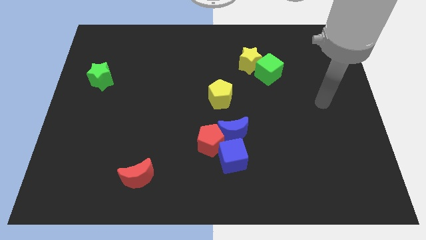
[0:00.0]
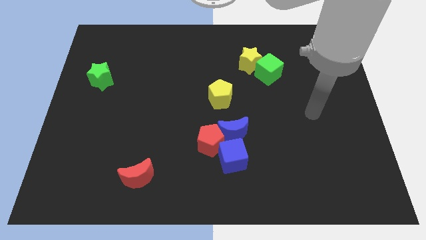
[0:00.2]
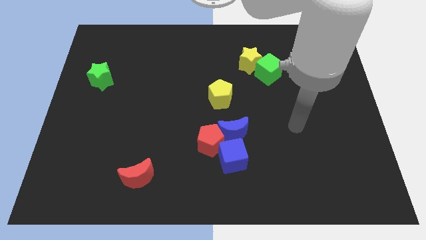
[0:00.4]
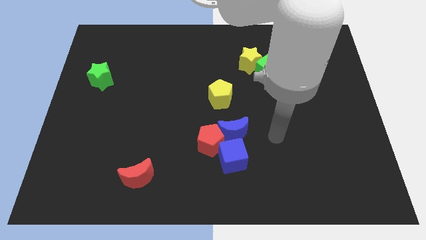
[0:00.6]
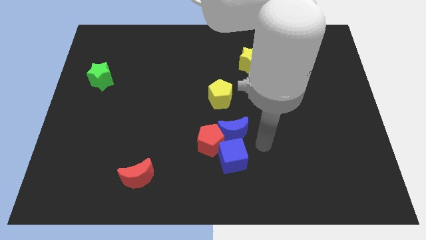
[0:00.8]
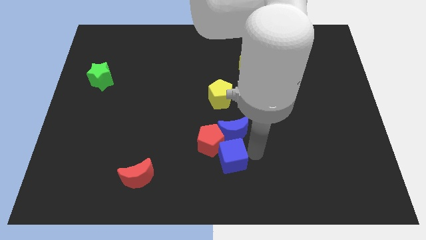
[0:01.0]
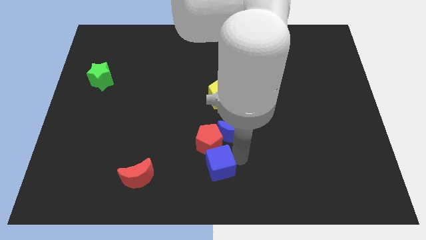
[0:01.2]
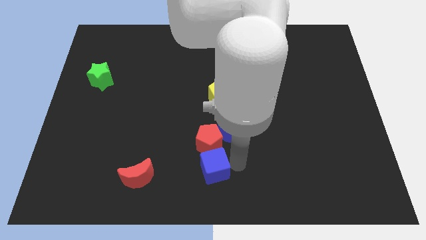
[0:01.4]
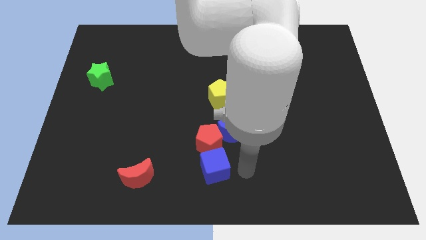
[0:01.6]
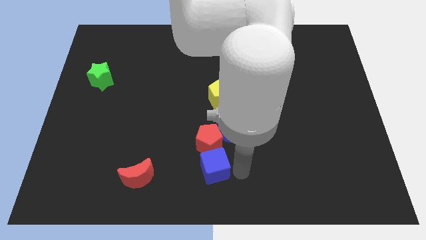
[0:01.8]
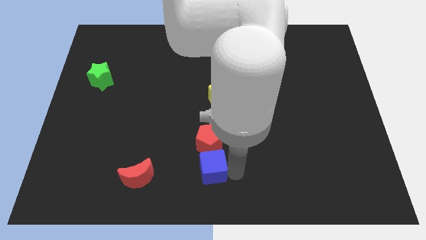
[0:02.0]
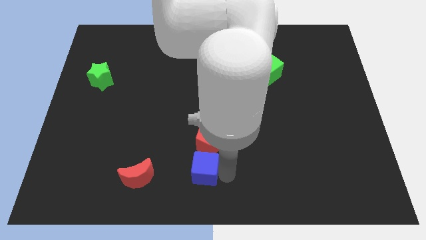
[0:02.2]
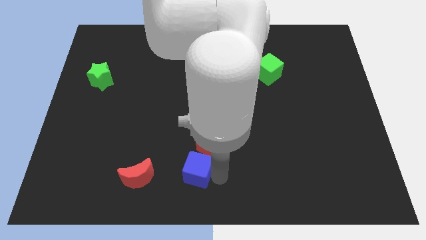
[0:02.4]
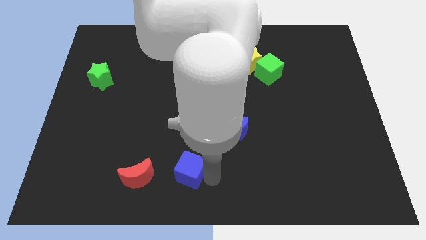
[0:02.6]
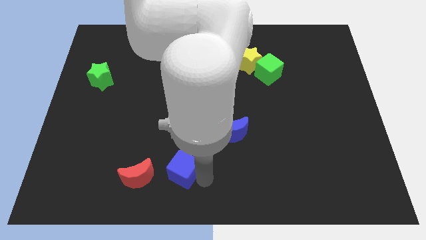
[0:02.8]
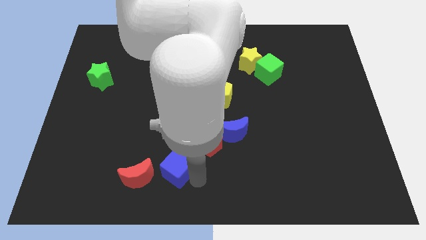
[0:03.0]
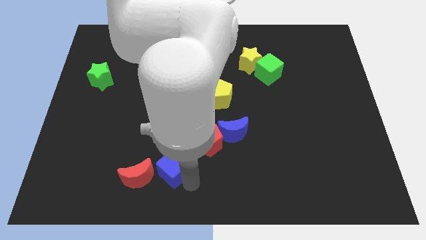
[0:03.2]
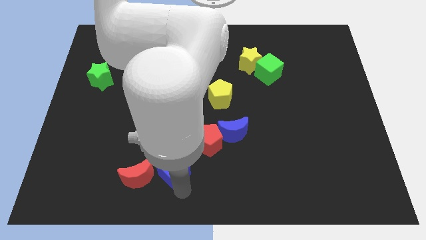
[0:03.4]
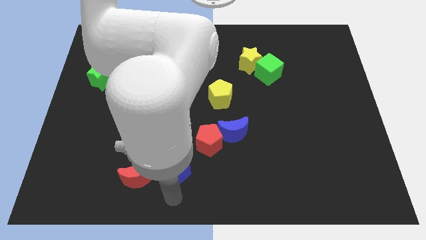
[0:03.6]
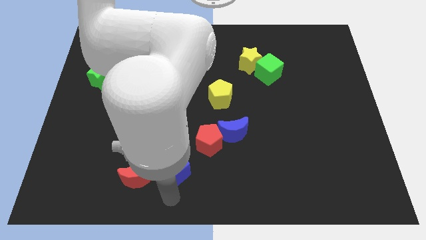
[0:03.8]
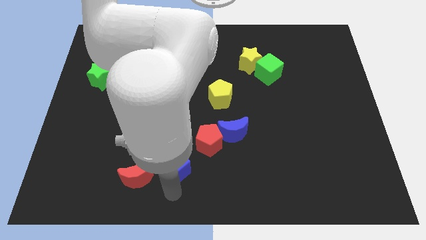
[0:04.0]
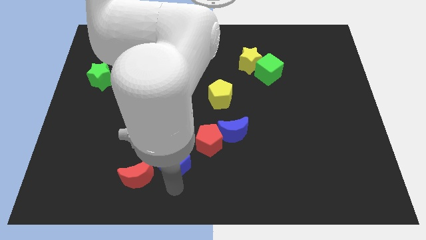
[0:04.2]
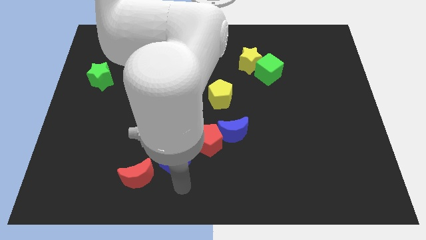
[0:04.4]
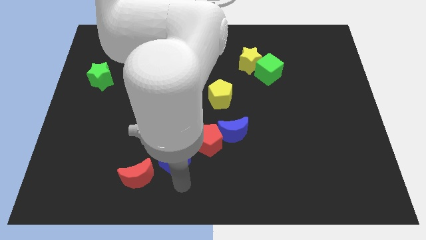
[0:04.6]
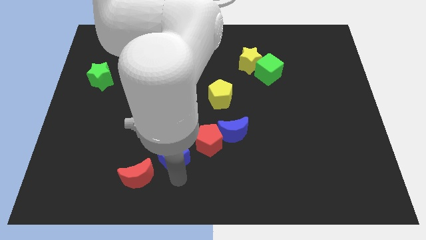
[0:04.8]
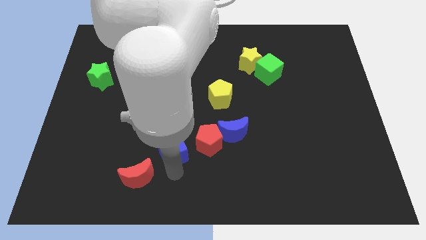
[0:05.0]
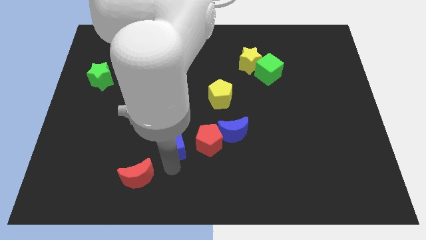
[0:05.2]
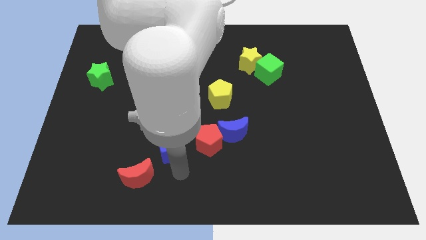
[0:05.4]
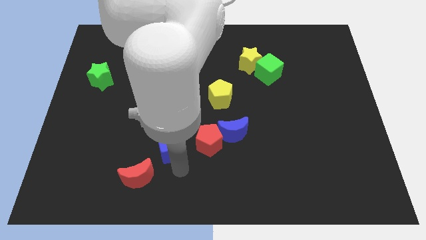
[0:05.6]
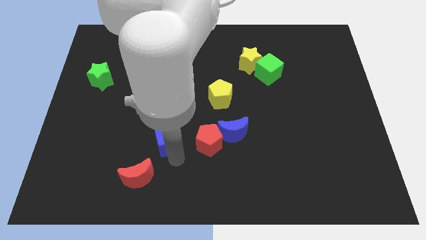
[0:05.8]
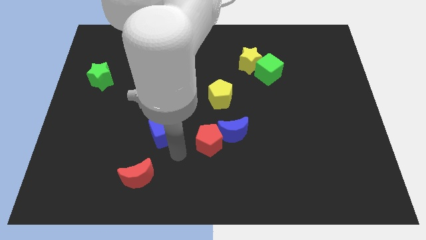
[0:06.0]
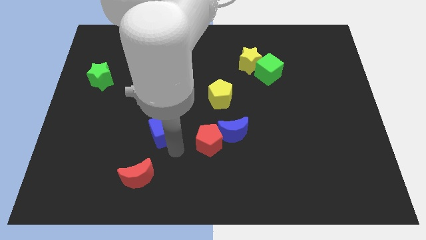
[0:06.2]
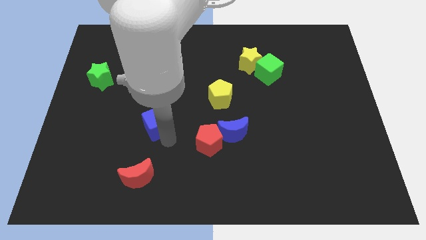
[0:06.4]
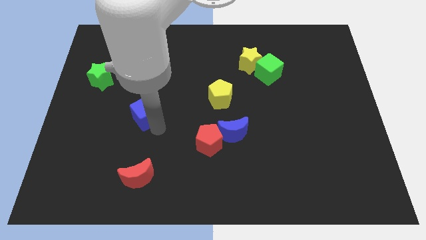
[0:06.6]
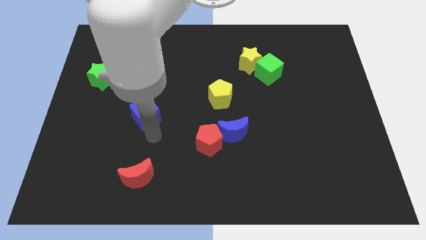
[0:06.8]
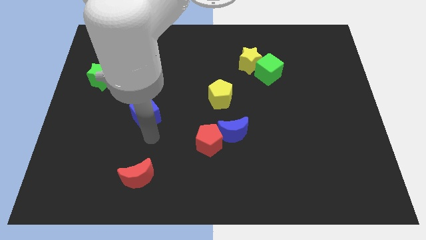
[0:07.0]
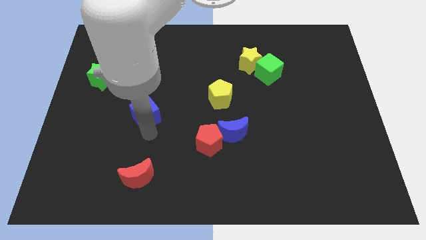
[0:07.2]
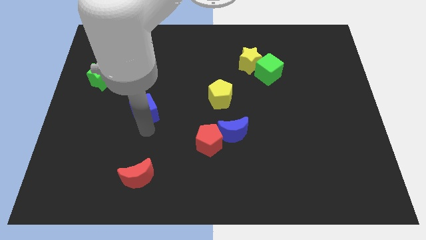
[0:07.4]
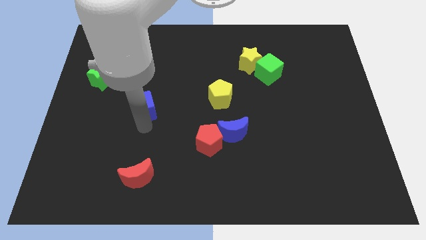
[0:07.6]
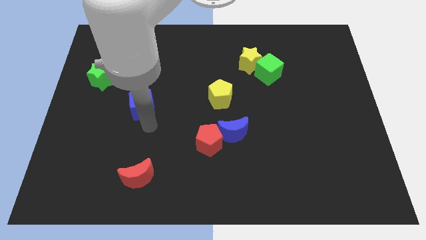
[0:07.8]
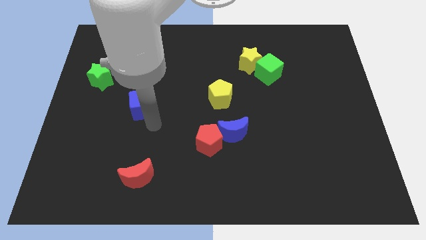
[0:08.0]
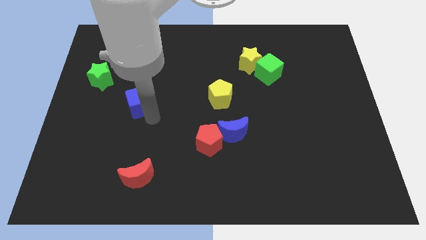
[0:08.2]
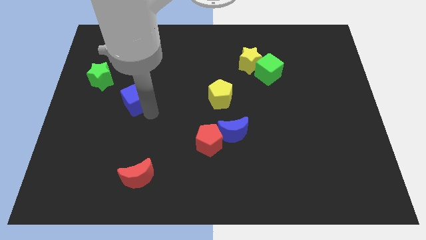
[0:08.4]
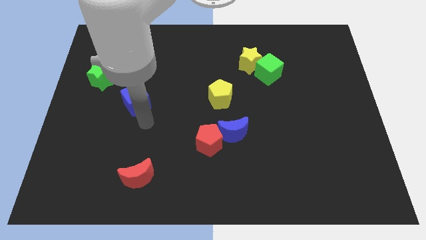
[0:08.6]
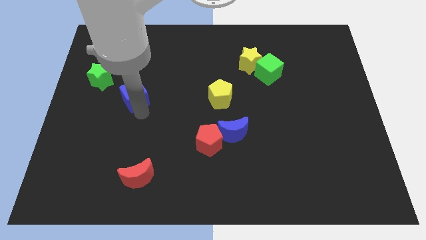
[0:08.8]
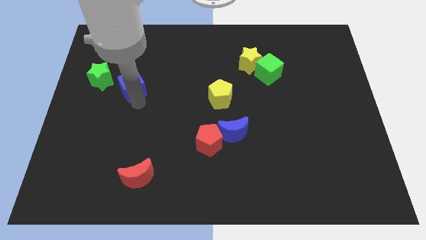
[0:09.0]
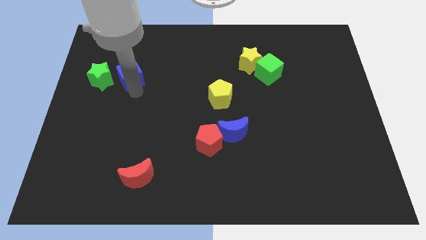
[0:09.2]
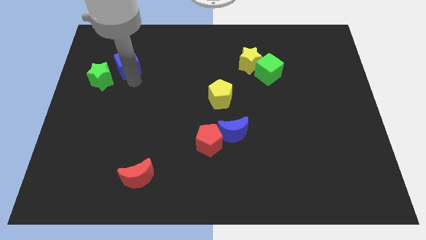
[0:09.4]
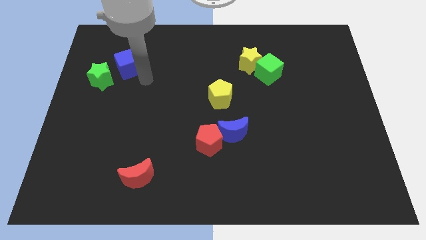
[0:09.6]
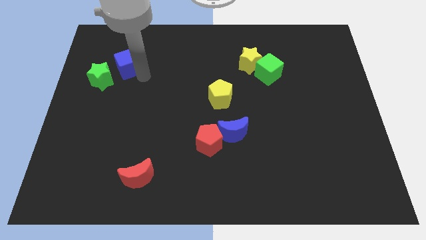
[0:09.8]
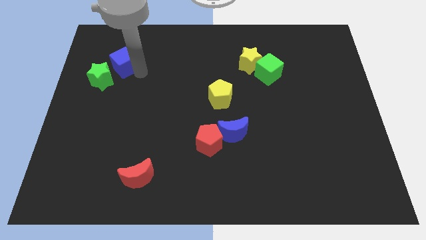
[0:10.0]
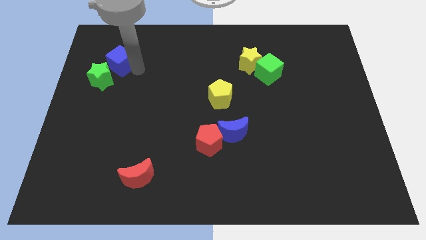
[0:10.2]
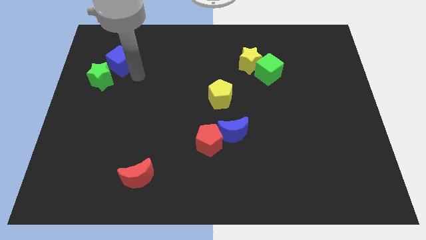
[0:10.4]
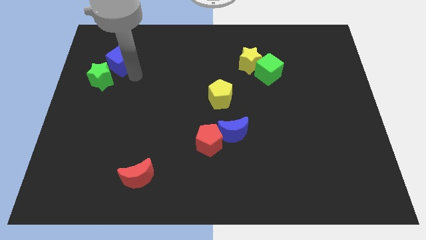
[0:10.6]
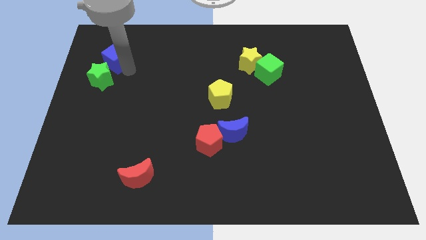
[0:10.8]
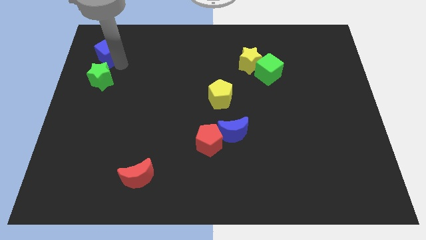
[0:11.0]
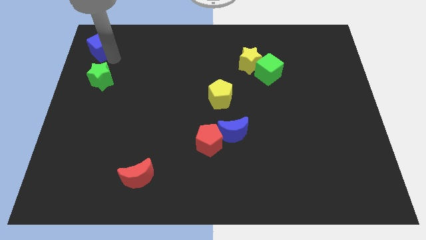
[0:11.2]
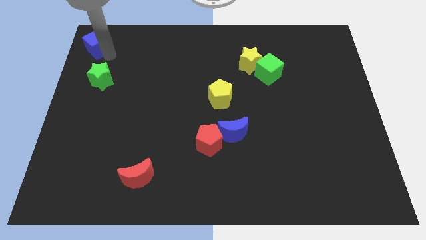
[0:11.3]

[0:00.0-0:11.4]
put the blue cube to the top left corner
